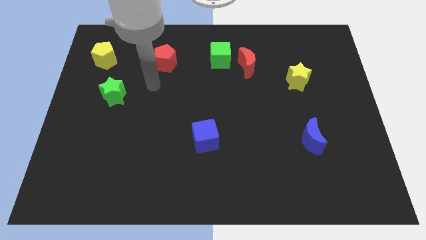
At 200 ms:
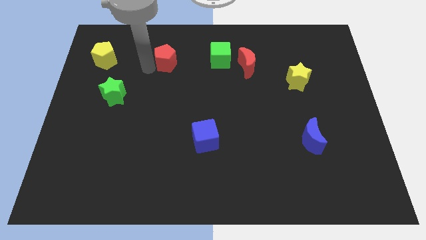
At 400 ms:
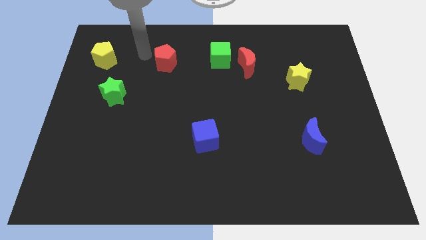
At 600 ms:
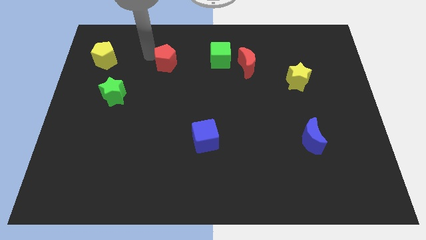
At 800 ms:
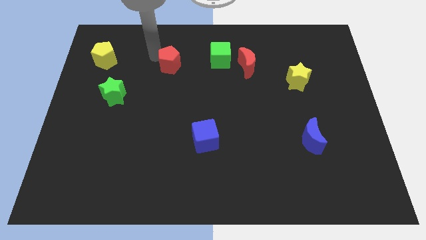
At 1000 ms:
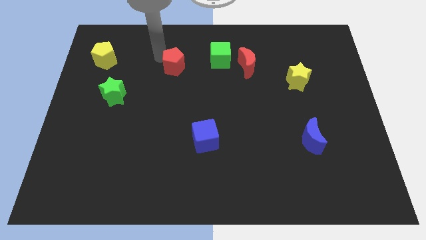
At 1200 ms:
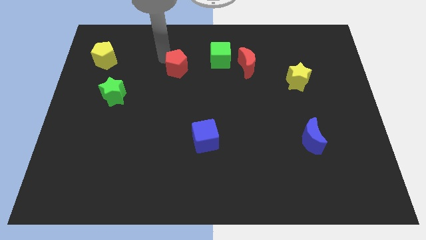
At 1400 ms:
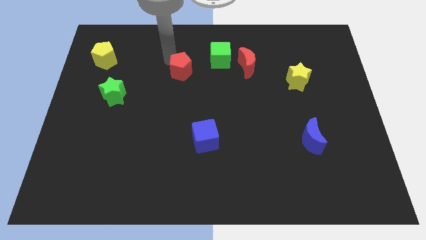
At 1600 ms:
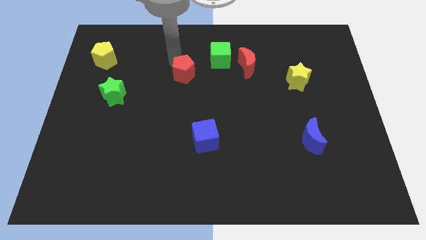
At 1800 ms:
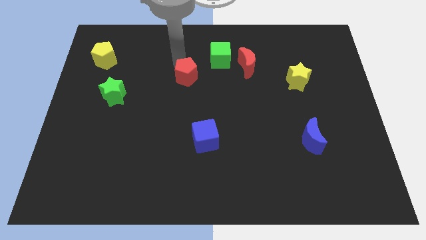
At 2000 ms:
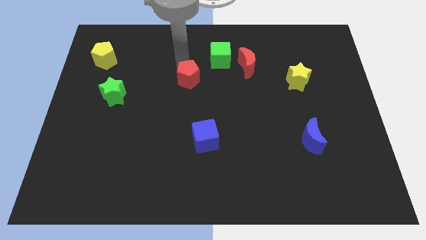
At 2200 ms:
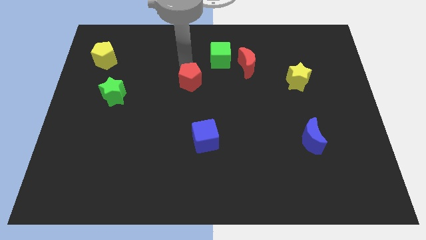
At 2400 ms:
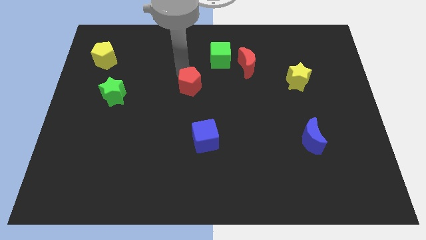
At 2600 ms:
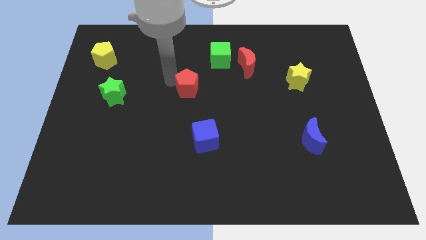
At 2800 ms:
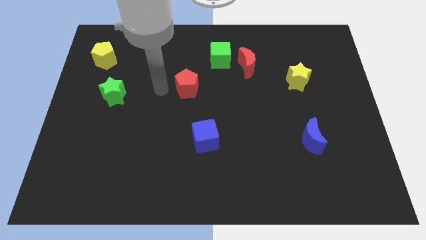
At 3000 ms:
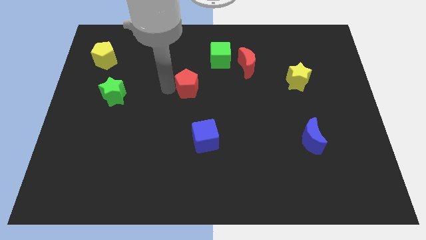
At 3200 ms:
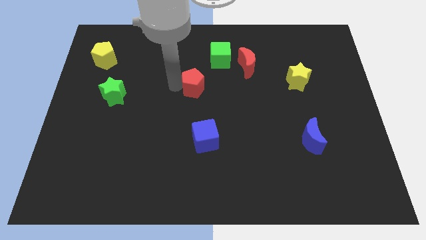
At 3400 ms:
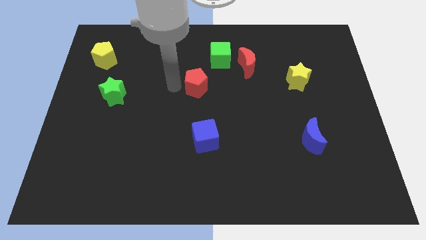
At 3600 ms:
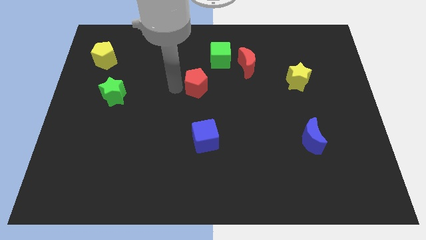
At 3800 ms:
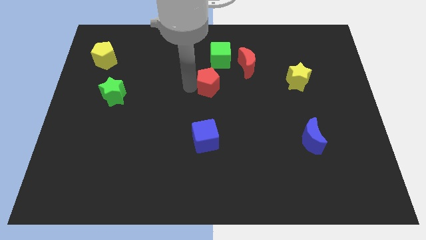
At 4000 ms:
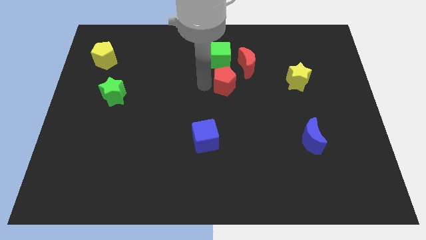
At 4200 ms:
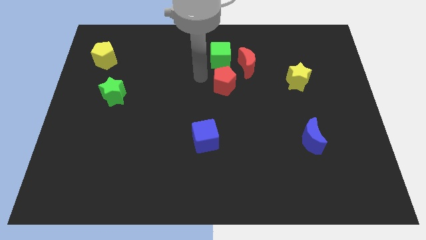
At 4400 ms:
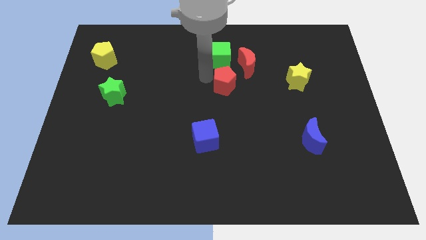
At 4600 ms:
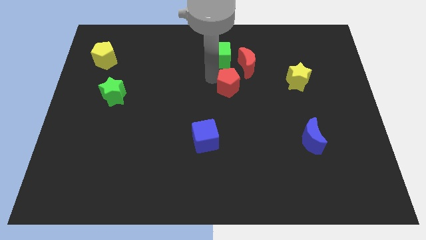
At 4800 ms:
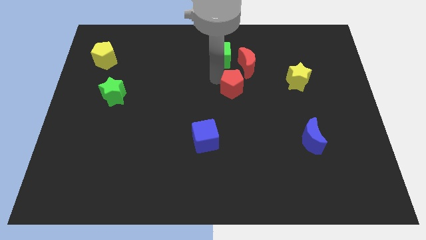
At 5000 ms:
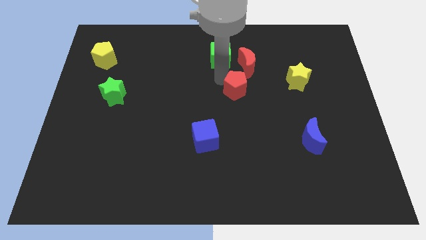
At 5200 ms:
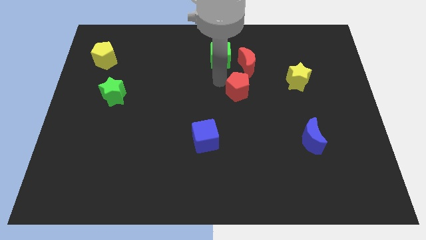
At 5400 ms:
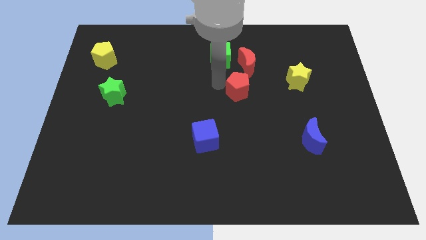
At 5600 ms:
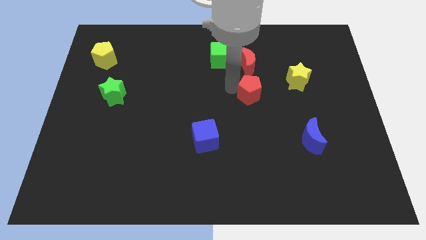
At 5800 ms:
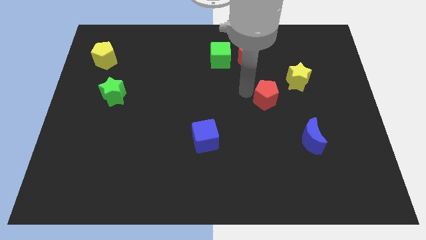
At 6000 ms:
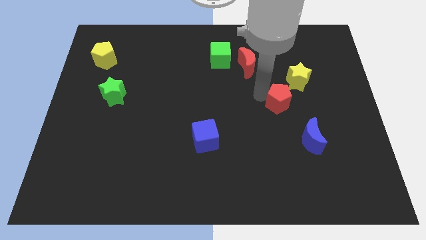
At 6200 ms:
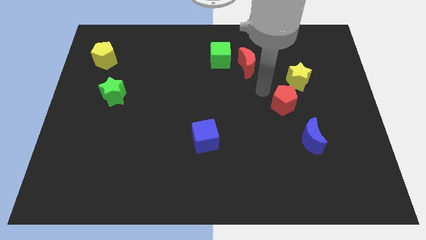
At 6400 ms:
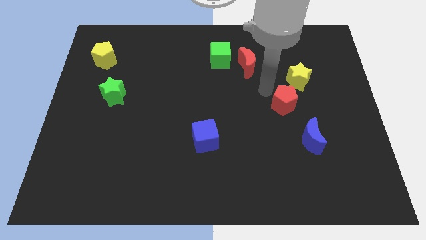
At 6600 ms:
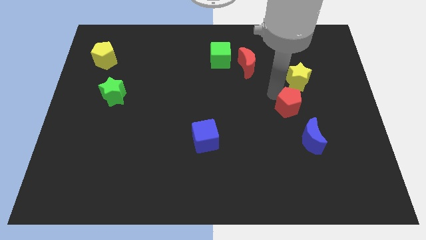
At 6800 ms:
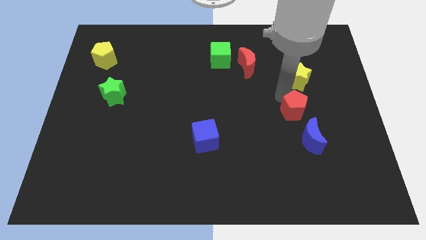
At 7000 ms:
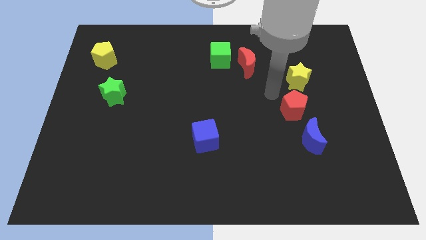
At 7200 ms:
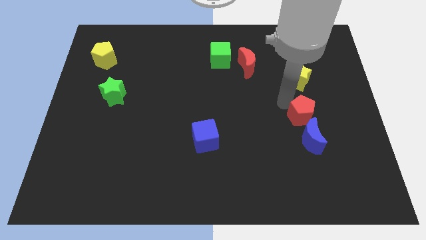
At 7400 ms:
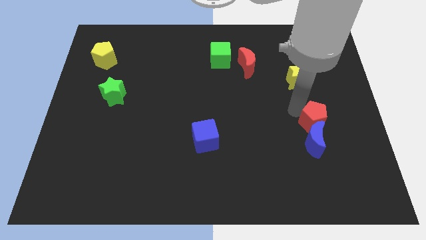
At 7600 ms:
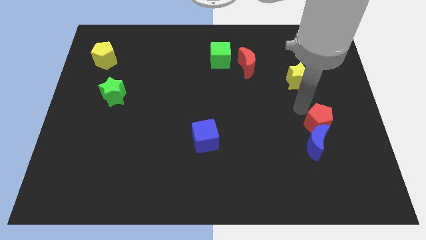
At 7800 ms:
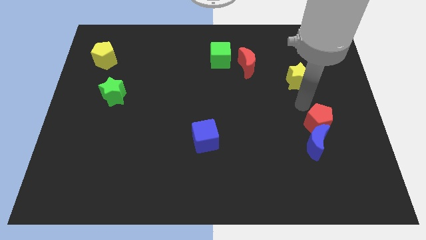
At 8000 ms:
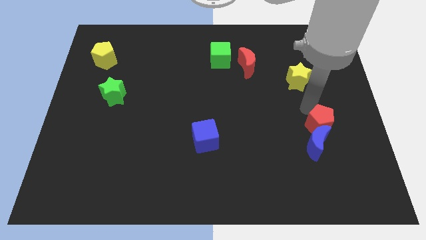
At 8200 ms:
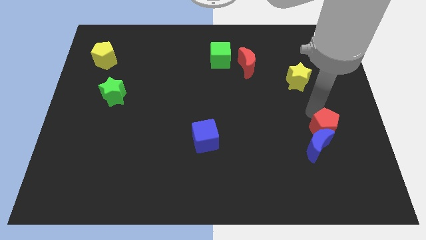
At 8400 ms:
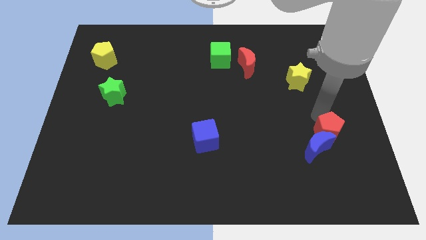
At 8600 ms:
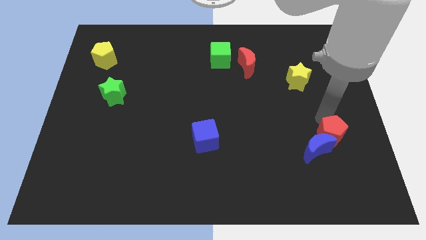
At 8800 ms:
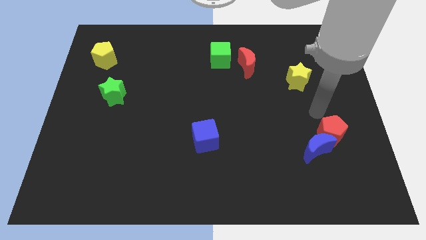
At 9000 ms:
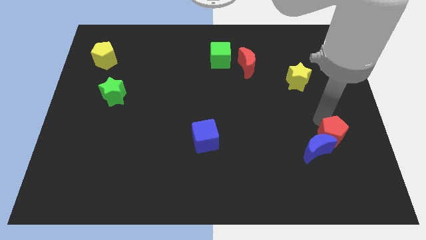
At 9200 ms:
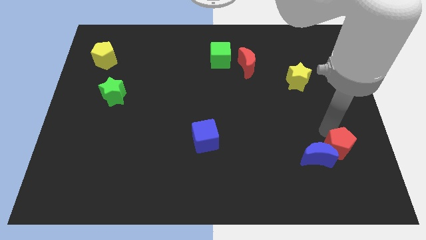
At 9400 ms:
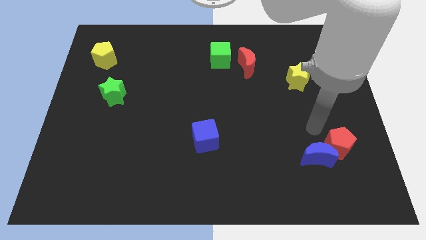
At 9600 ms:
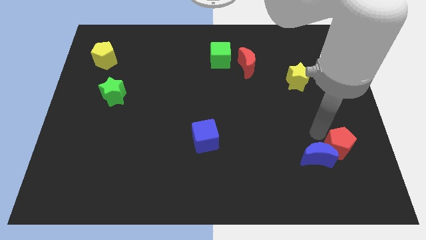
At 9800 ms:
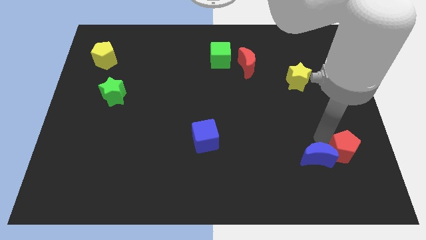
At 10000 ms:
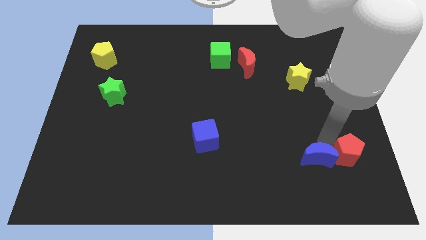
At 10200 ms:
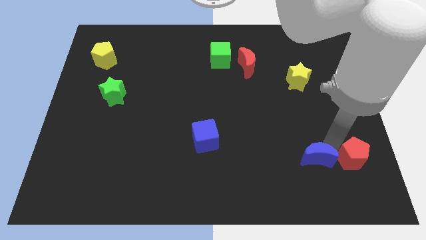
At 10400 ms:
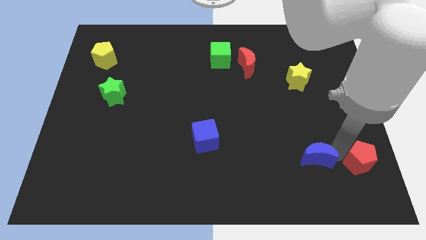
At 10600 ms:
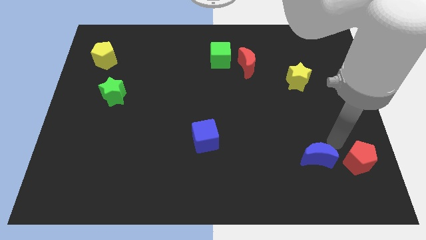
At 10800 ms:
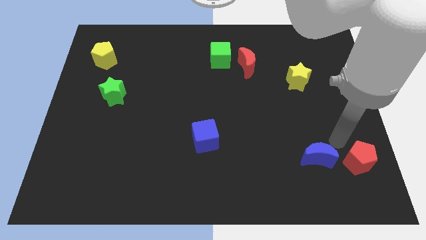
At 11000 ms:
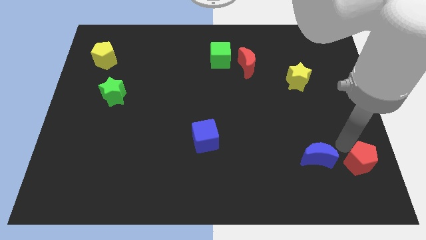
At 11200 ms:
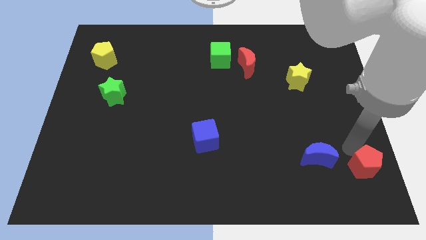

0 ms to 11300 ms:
push the red pentagon to the lower right corner

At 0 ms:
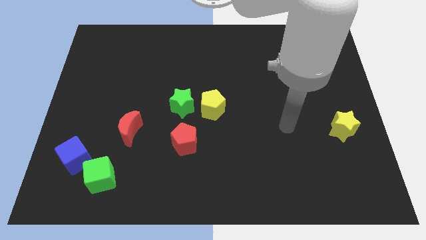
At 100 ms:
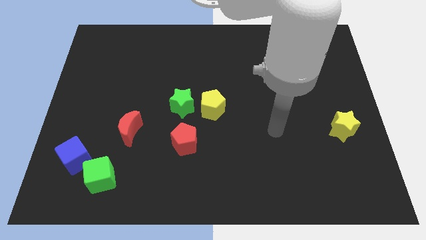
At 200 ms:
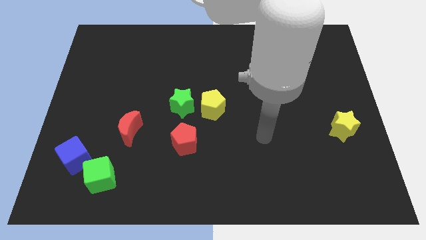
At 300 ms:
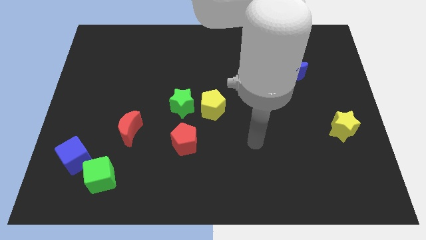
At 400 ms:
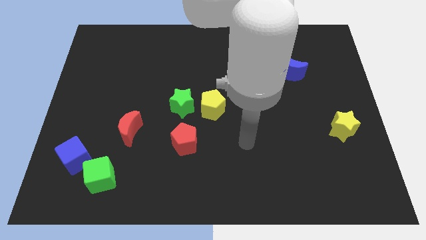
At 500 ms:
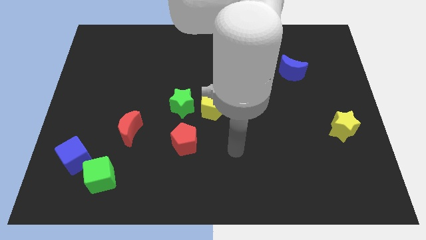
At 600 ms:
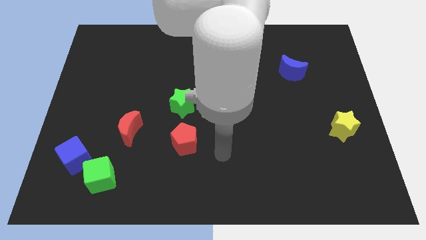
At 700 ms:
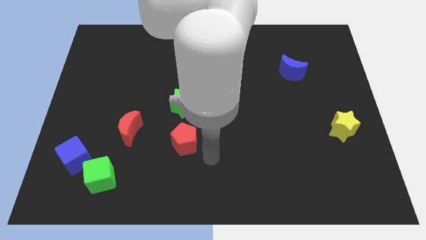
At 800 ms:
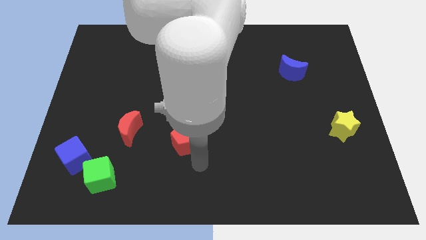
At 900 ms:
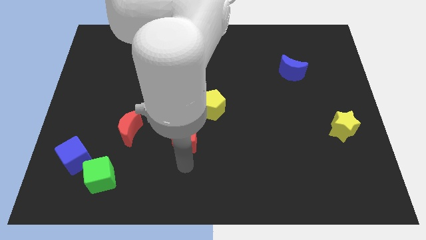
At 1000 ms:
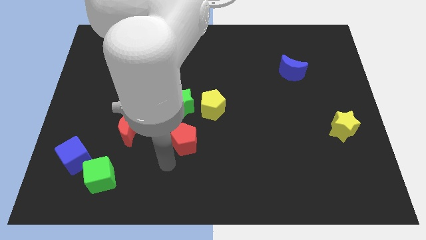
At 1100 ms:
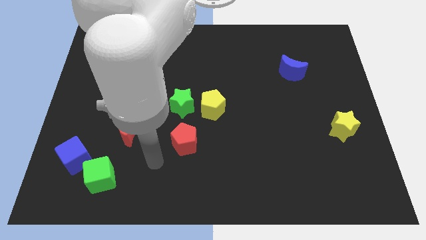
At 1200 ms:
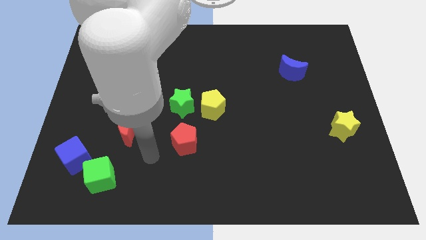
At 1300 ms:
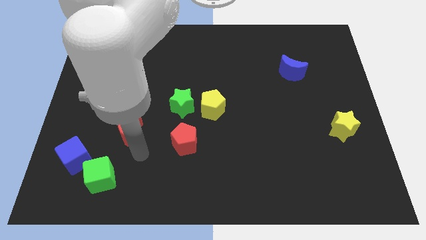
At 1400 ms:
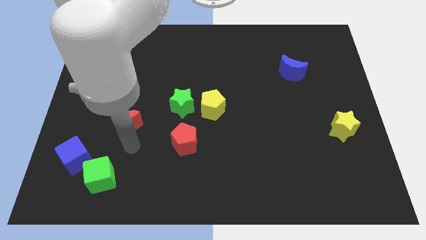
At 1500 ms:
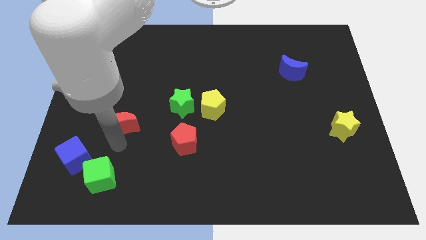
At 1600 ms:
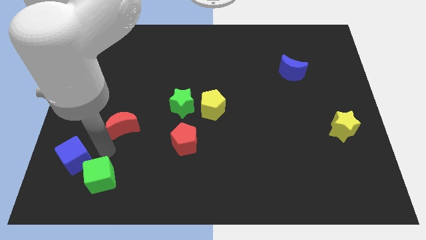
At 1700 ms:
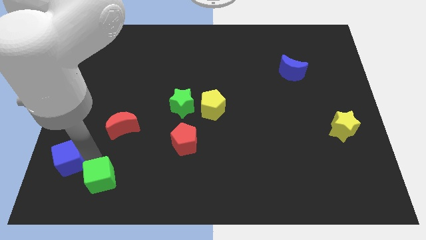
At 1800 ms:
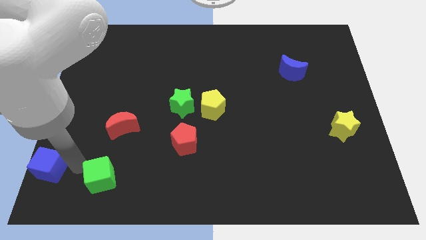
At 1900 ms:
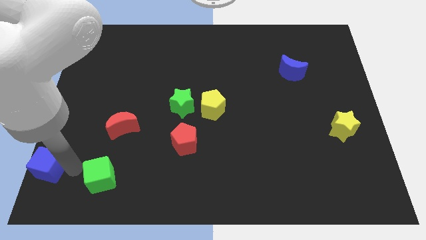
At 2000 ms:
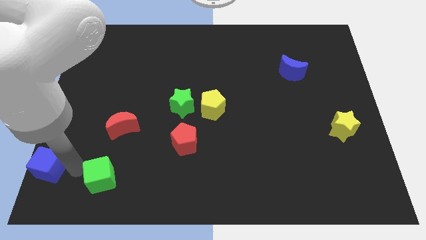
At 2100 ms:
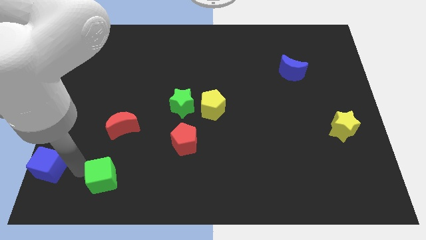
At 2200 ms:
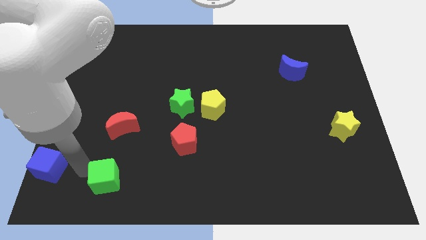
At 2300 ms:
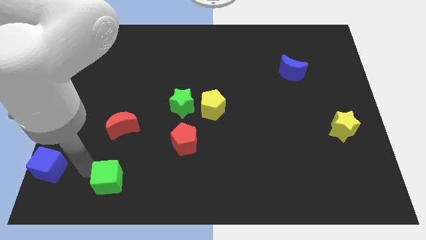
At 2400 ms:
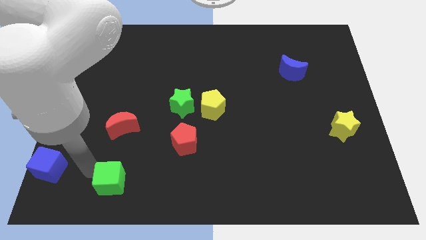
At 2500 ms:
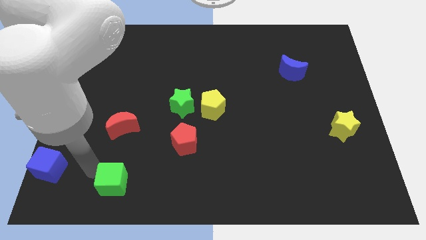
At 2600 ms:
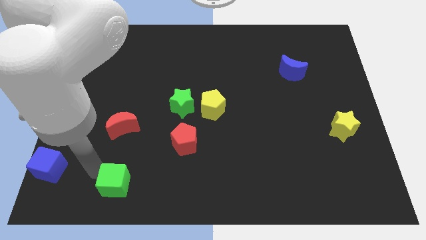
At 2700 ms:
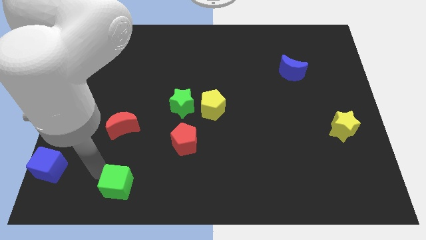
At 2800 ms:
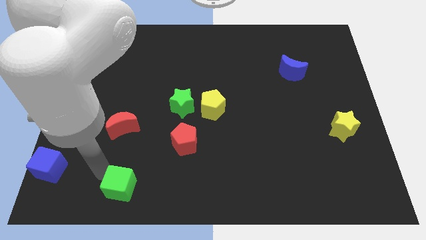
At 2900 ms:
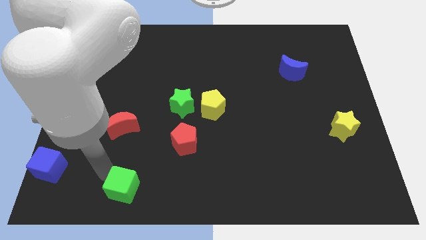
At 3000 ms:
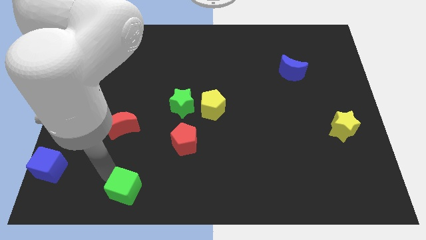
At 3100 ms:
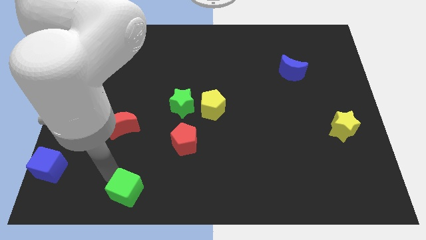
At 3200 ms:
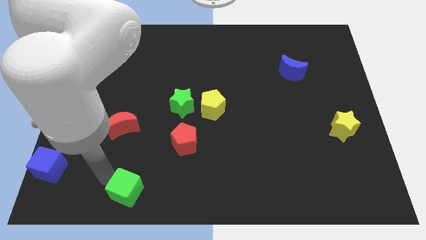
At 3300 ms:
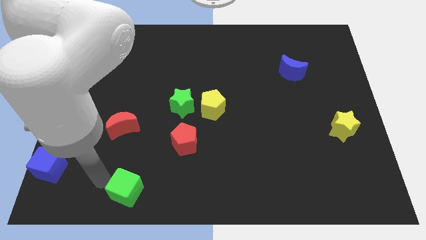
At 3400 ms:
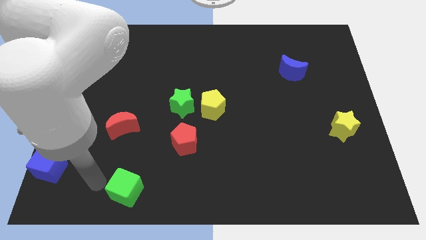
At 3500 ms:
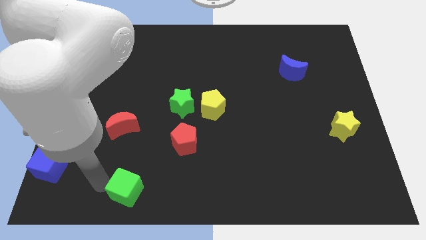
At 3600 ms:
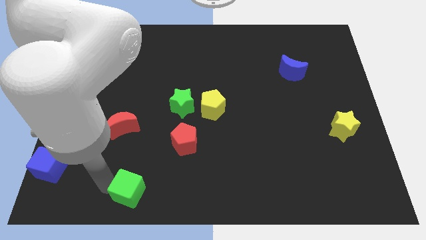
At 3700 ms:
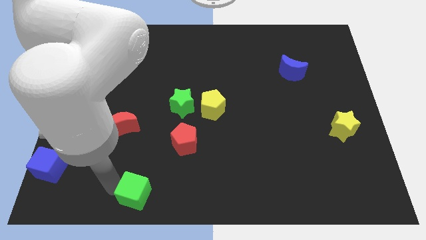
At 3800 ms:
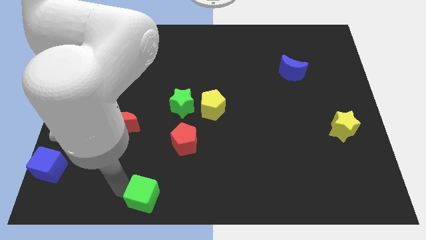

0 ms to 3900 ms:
move the green cube to the bottom
